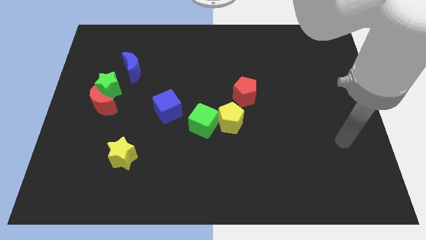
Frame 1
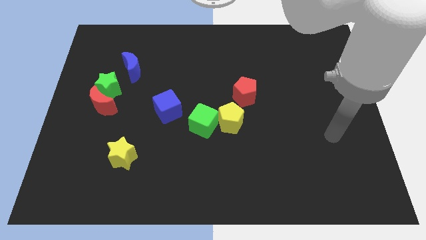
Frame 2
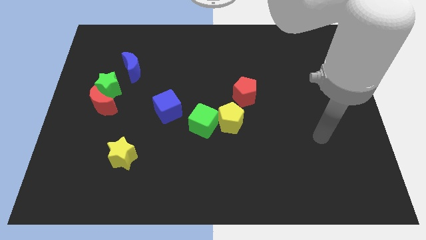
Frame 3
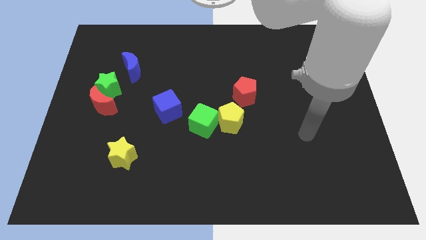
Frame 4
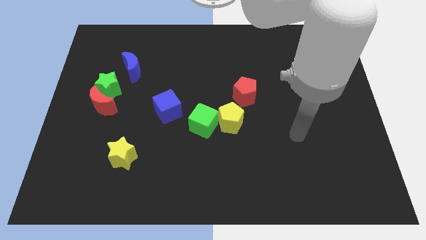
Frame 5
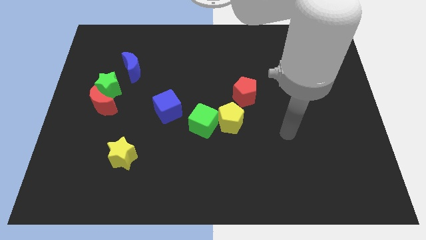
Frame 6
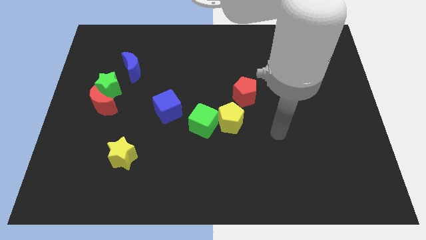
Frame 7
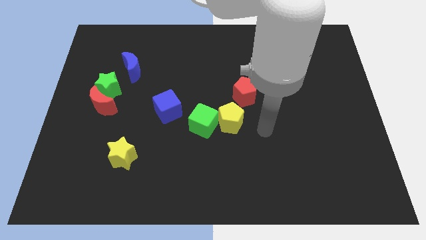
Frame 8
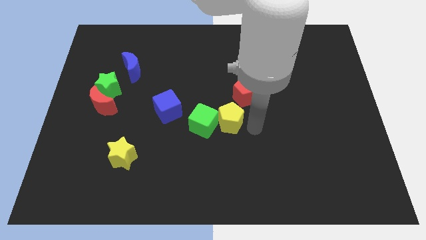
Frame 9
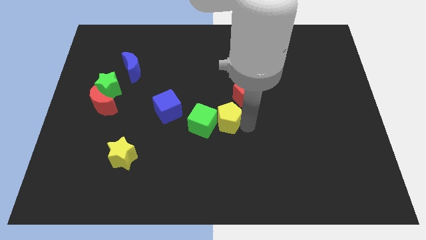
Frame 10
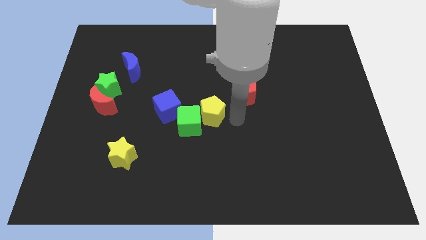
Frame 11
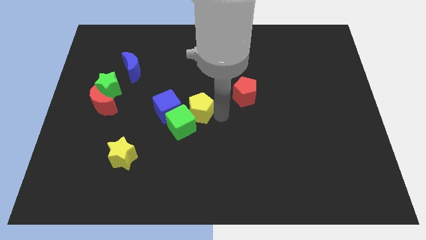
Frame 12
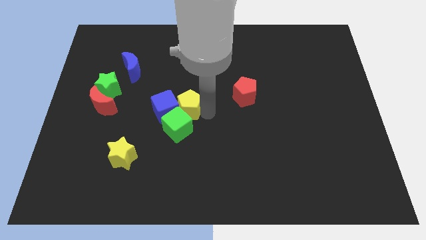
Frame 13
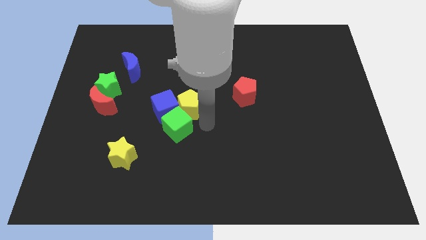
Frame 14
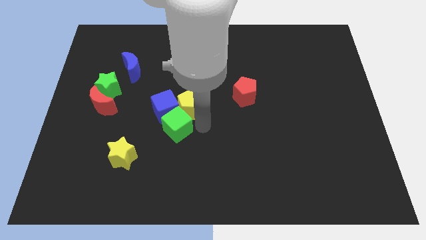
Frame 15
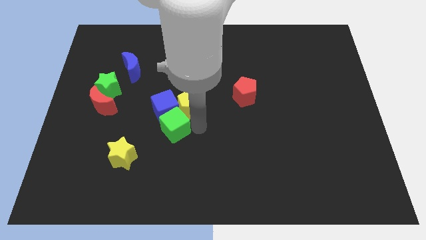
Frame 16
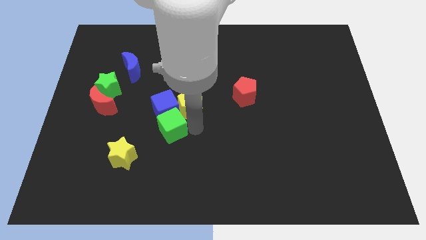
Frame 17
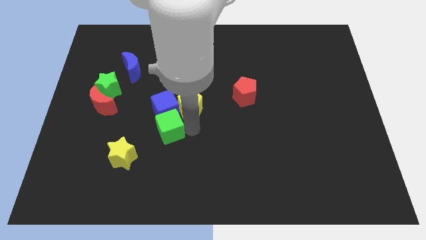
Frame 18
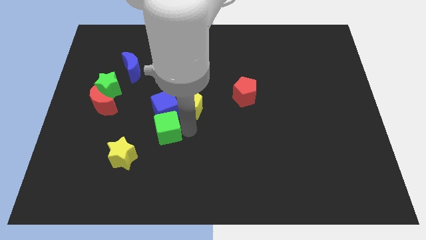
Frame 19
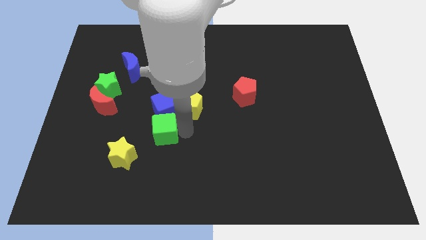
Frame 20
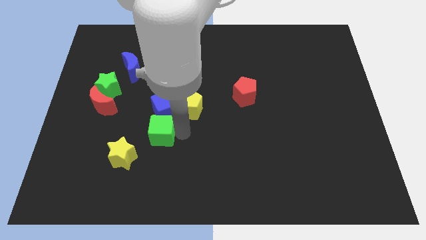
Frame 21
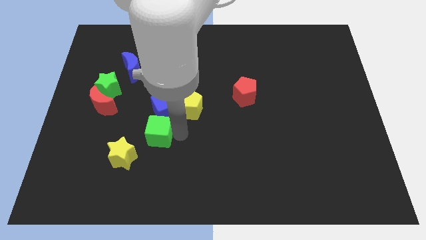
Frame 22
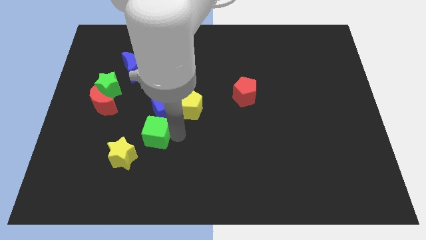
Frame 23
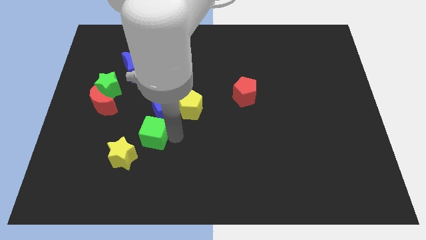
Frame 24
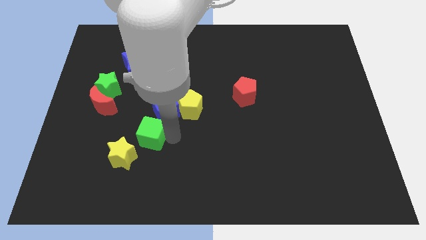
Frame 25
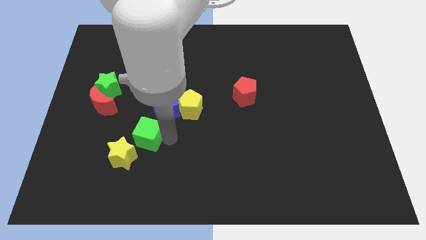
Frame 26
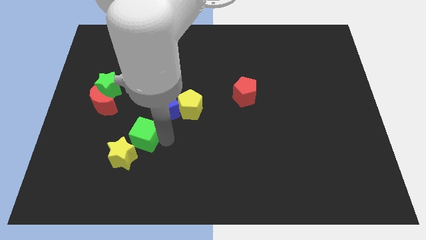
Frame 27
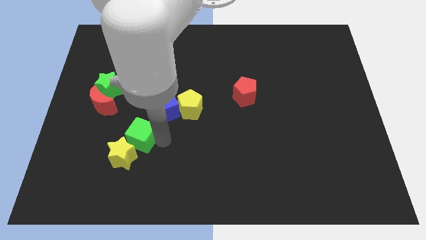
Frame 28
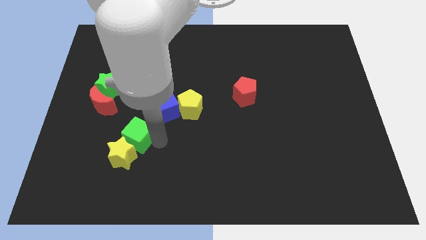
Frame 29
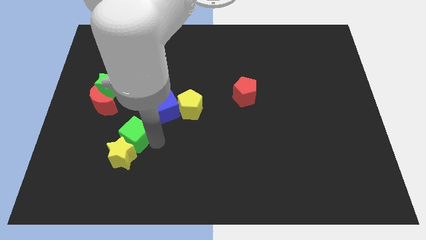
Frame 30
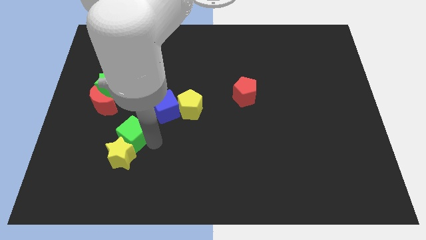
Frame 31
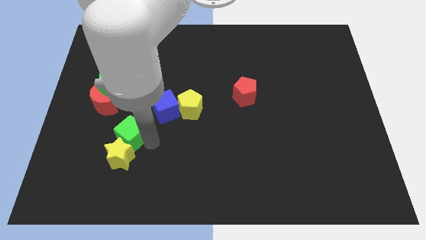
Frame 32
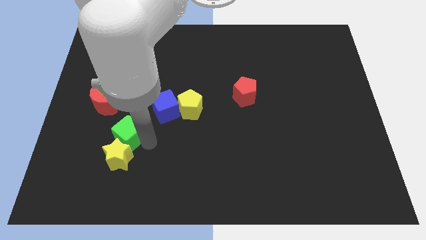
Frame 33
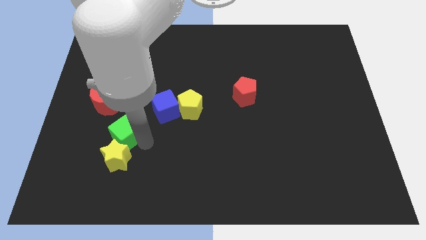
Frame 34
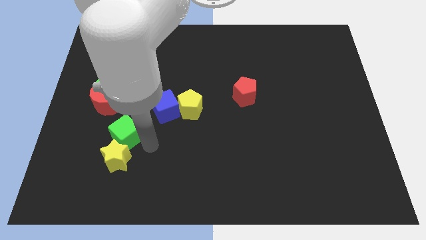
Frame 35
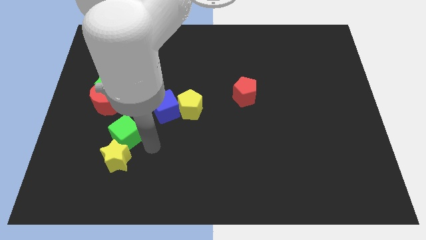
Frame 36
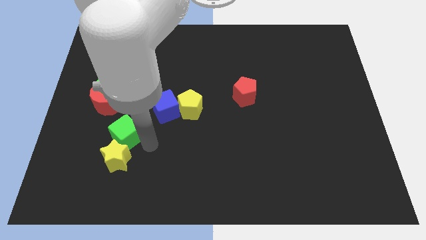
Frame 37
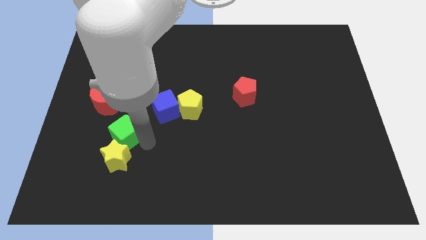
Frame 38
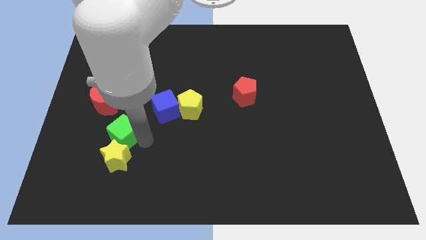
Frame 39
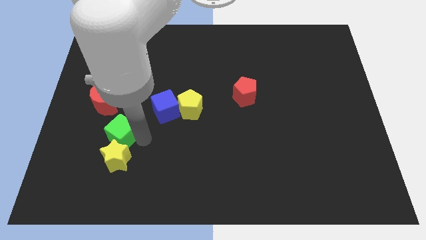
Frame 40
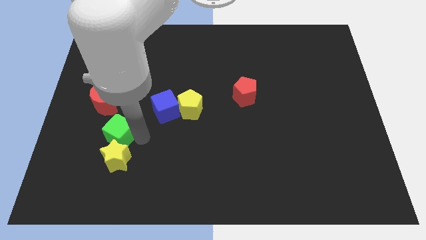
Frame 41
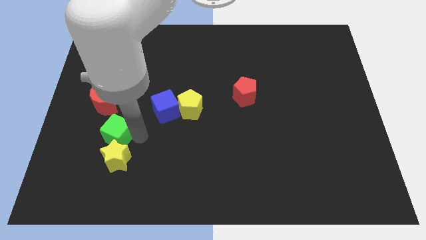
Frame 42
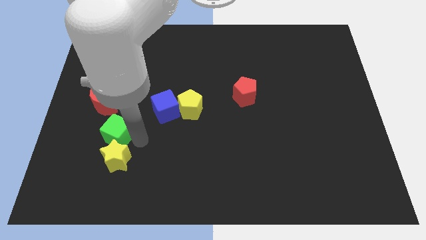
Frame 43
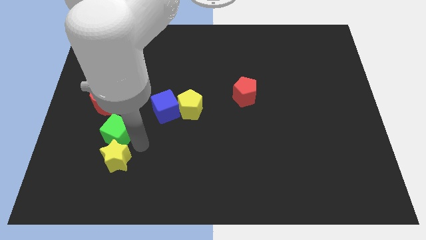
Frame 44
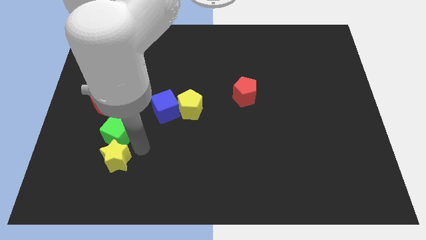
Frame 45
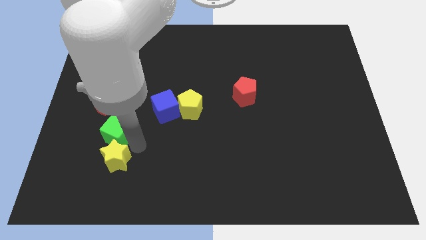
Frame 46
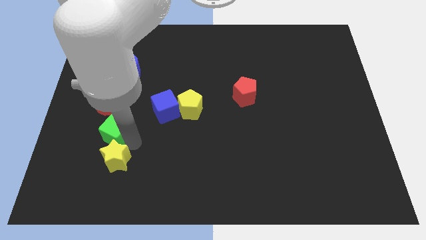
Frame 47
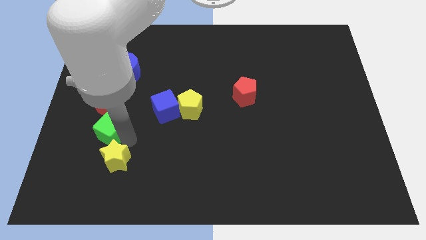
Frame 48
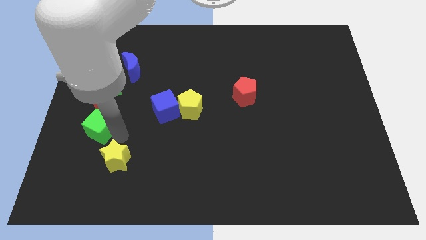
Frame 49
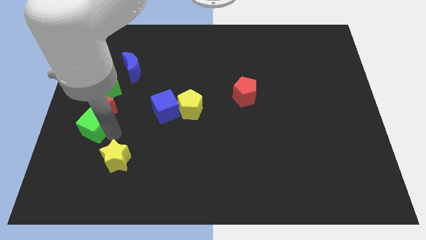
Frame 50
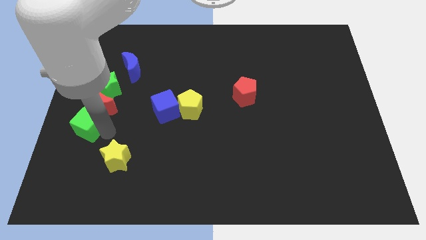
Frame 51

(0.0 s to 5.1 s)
push the green cube to the left side of the board

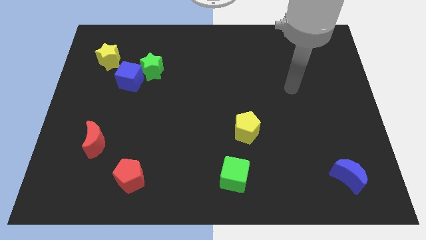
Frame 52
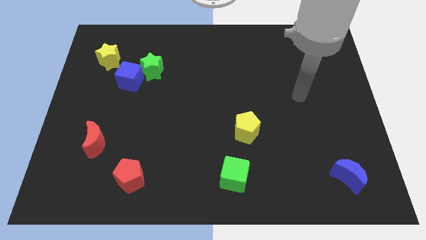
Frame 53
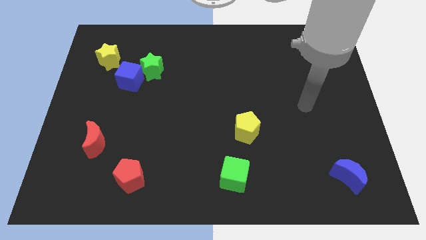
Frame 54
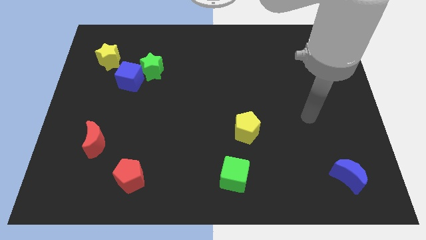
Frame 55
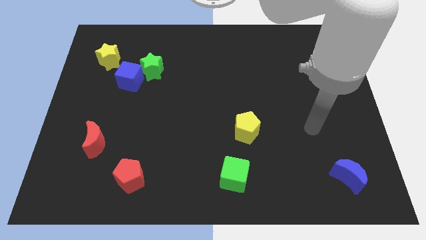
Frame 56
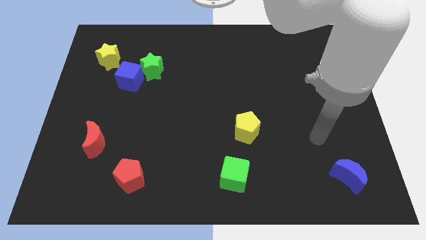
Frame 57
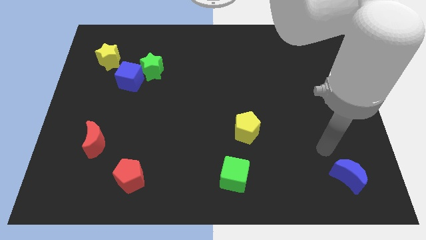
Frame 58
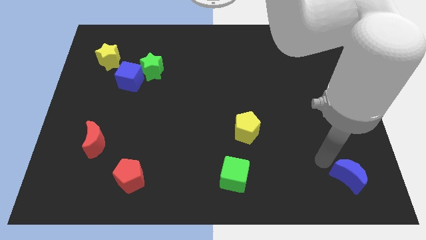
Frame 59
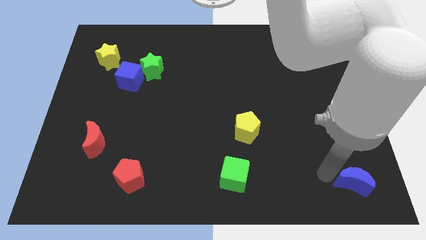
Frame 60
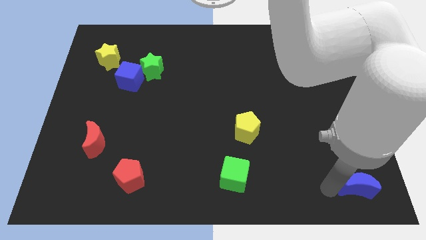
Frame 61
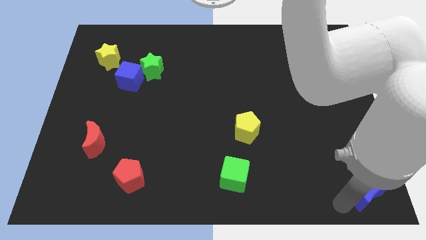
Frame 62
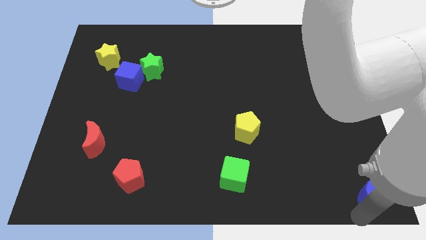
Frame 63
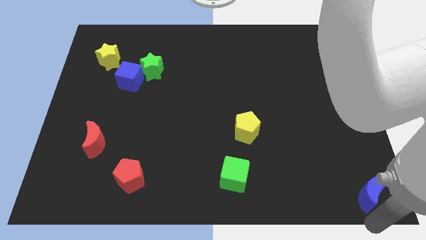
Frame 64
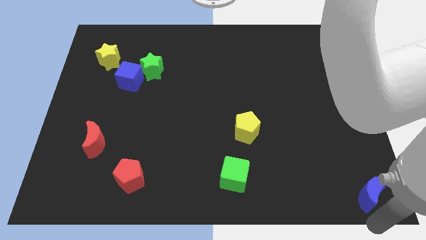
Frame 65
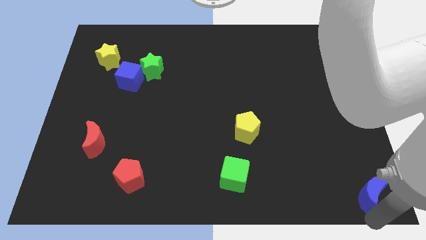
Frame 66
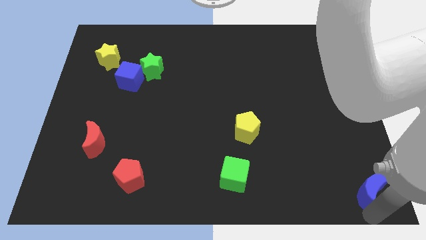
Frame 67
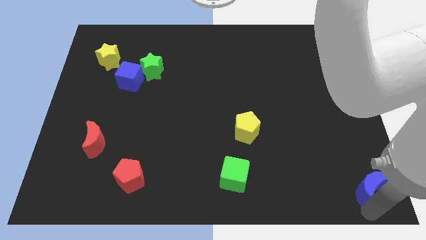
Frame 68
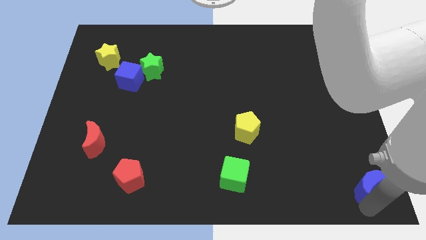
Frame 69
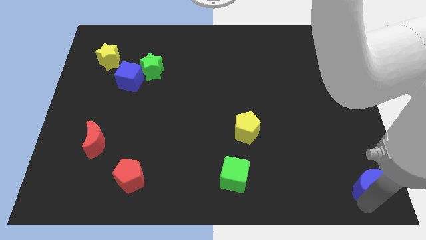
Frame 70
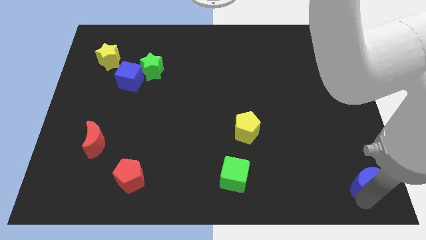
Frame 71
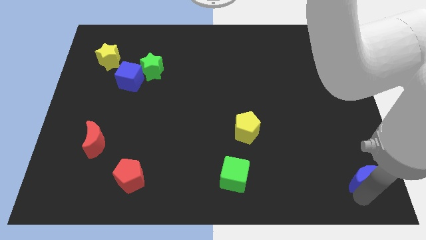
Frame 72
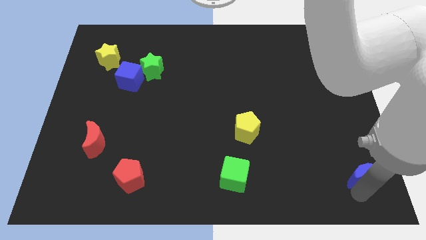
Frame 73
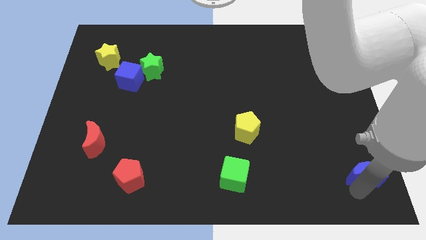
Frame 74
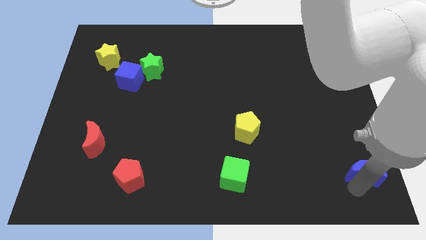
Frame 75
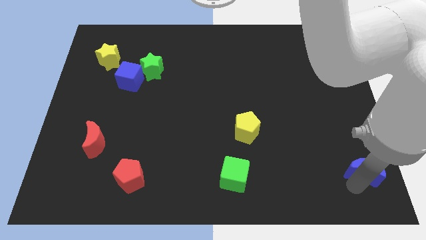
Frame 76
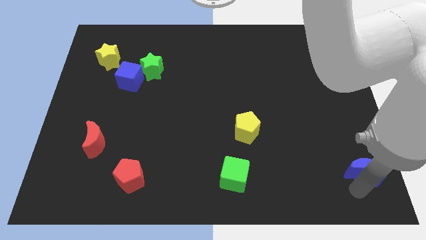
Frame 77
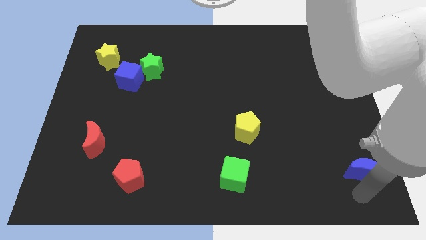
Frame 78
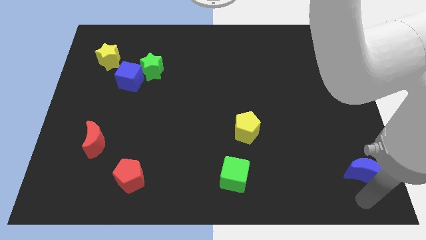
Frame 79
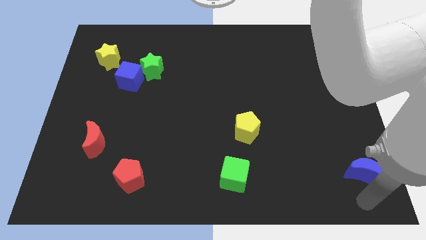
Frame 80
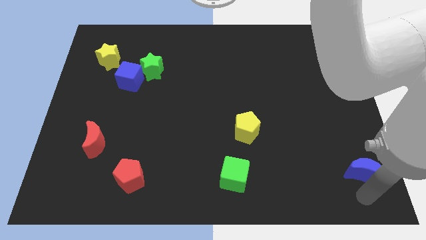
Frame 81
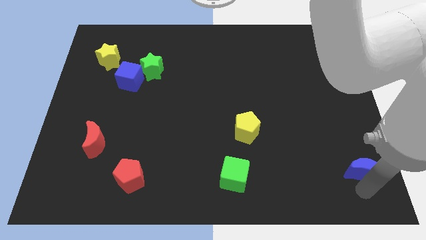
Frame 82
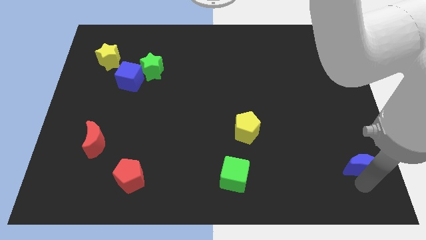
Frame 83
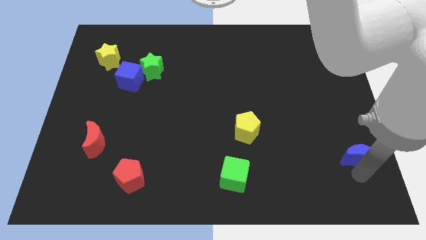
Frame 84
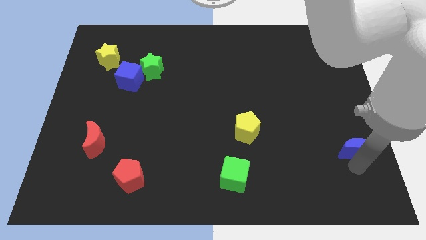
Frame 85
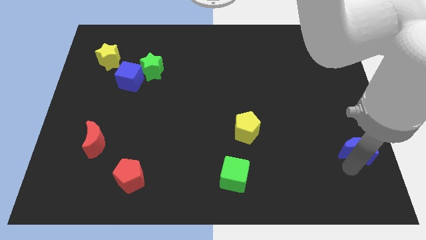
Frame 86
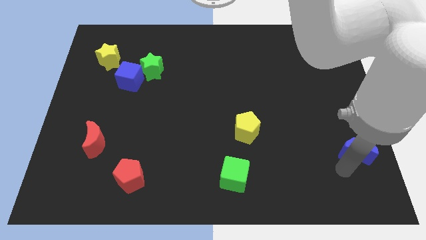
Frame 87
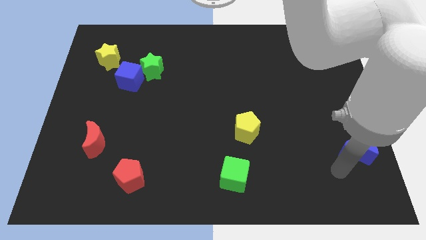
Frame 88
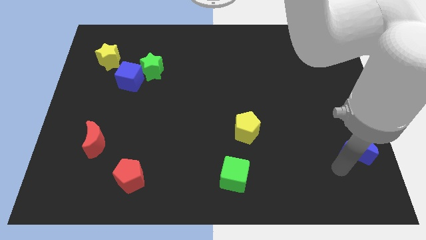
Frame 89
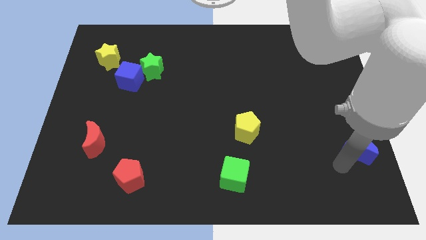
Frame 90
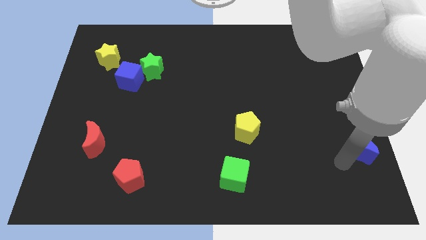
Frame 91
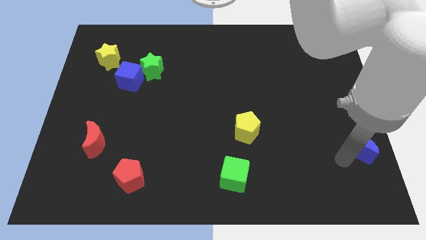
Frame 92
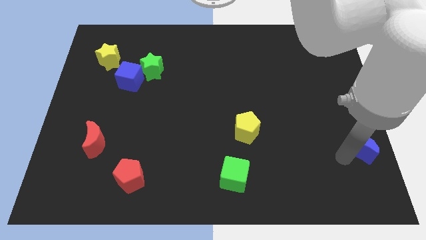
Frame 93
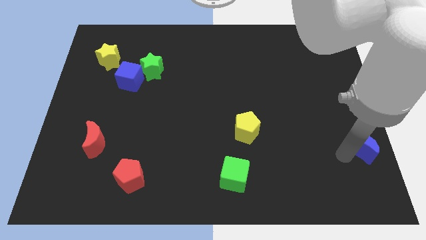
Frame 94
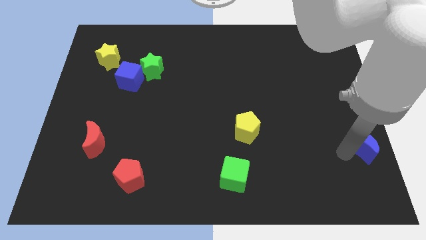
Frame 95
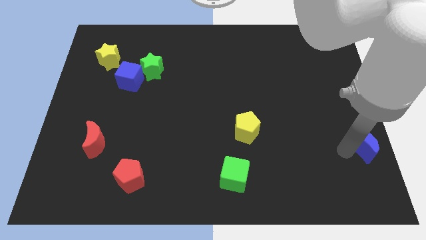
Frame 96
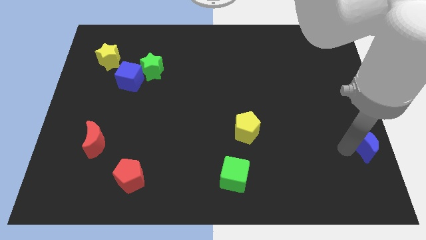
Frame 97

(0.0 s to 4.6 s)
put the blue moon to the right side of the board
